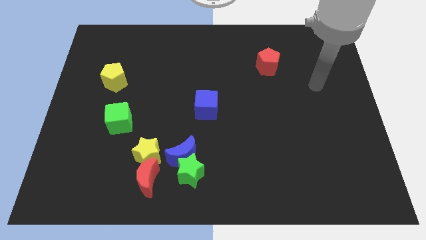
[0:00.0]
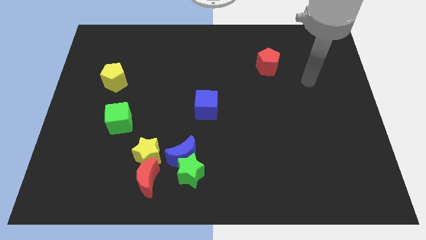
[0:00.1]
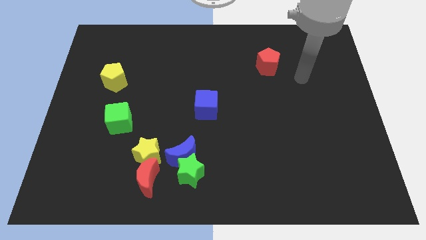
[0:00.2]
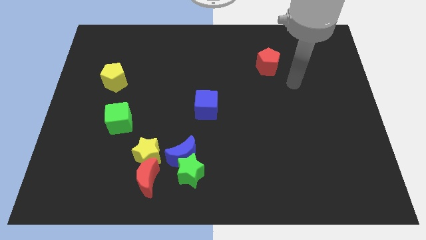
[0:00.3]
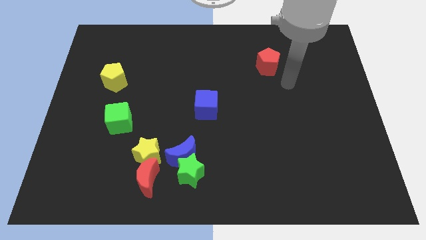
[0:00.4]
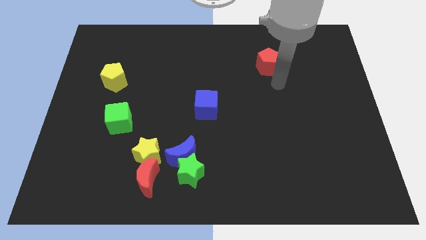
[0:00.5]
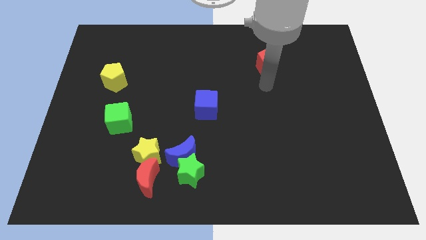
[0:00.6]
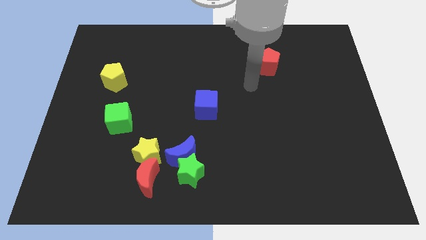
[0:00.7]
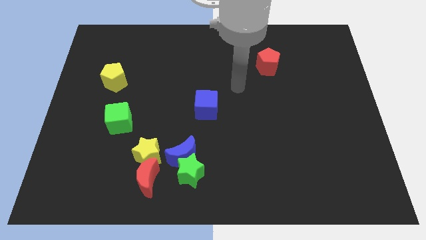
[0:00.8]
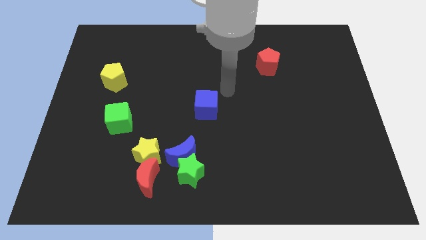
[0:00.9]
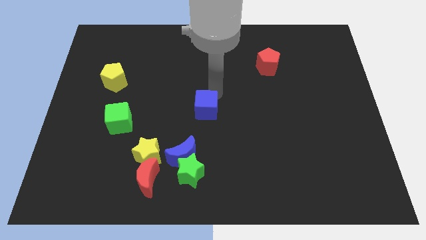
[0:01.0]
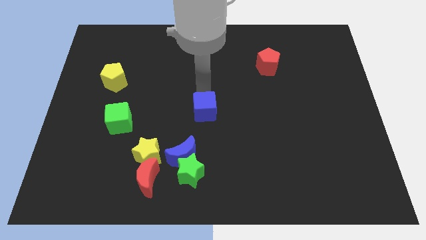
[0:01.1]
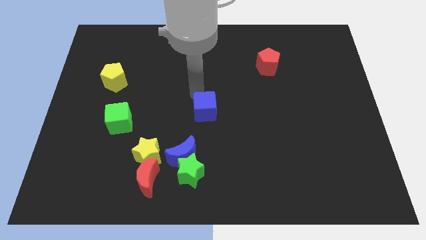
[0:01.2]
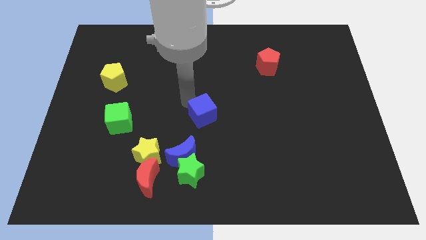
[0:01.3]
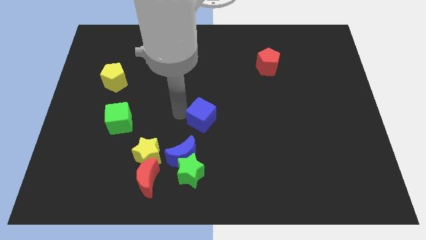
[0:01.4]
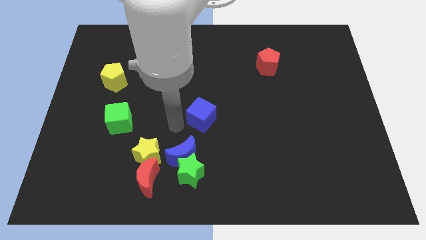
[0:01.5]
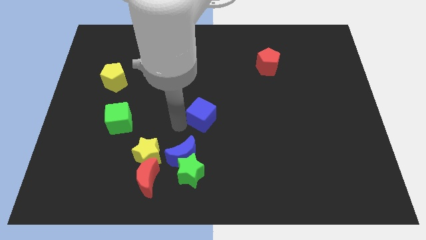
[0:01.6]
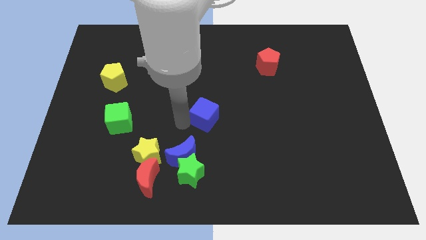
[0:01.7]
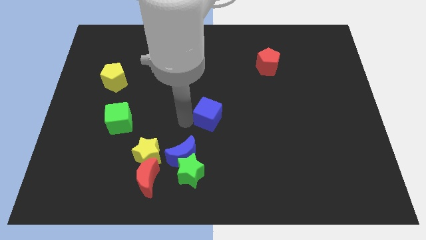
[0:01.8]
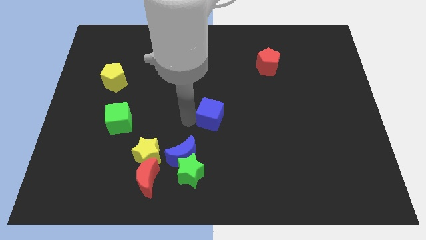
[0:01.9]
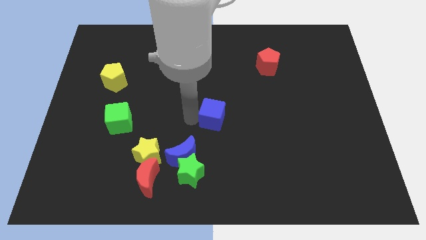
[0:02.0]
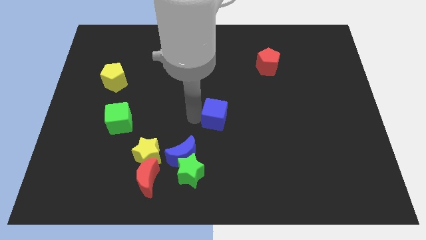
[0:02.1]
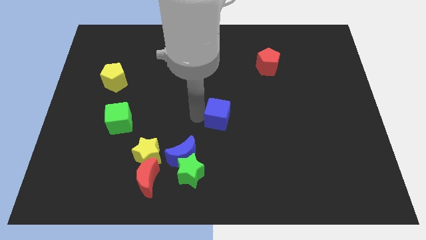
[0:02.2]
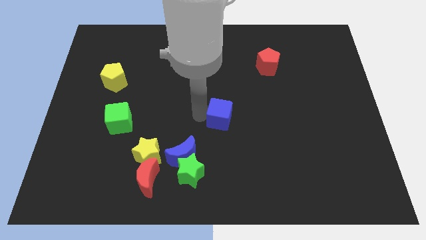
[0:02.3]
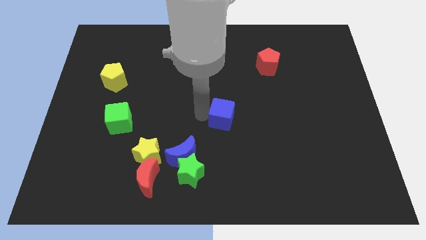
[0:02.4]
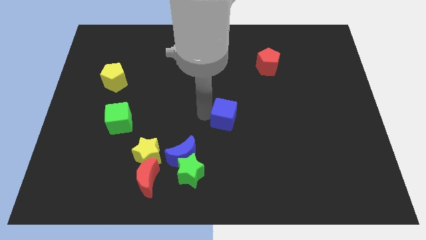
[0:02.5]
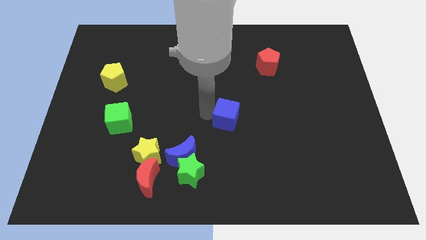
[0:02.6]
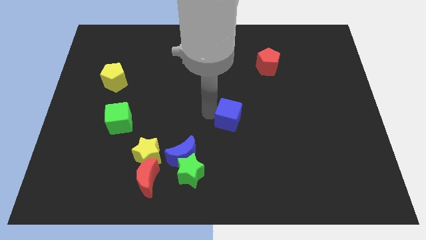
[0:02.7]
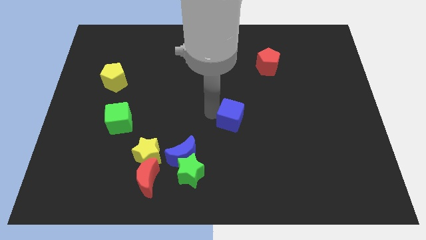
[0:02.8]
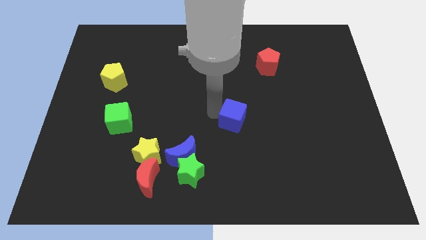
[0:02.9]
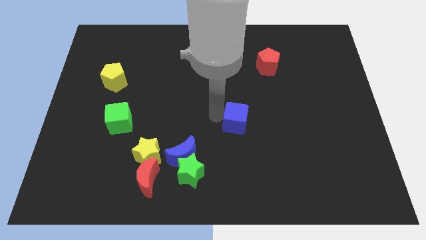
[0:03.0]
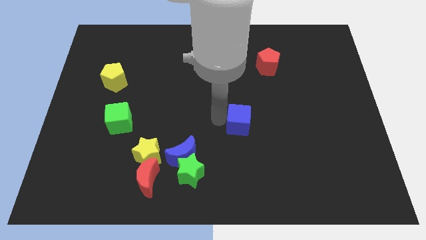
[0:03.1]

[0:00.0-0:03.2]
slide the blue cube a little bit right

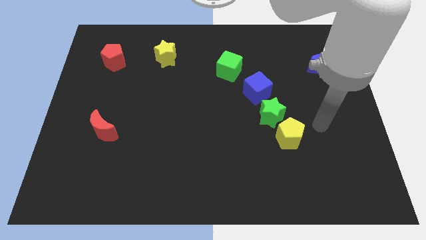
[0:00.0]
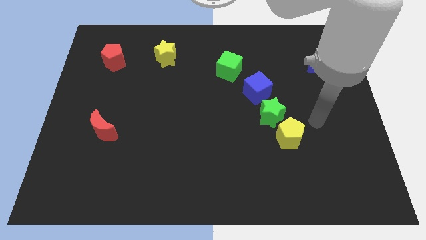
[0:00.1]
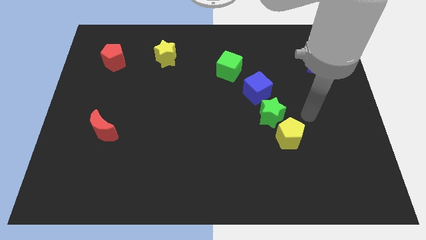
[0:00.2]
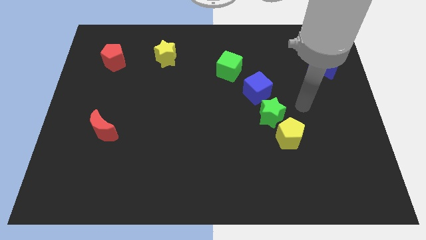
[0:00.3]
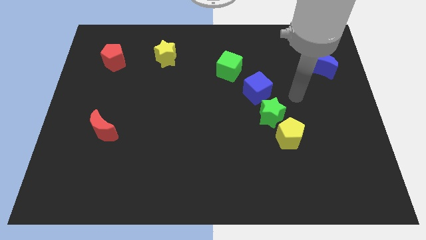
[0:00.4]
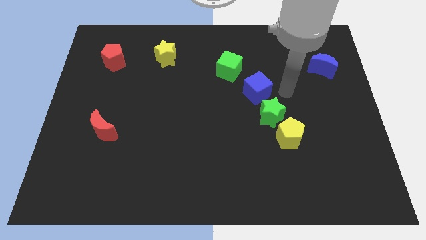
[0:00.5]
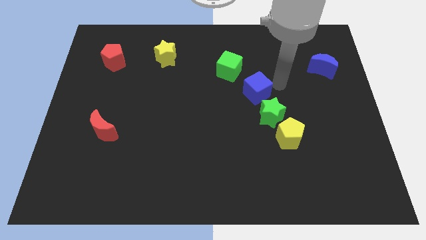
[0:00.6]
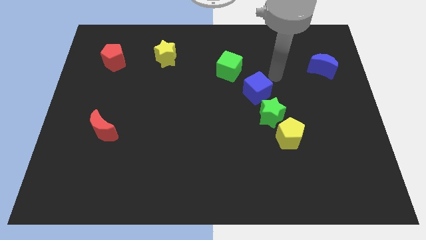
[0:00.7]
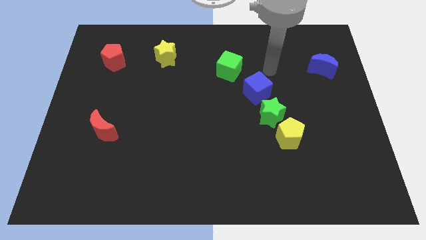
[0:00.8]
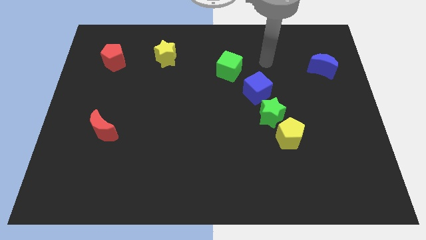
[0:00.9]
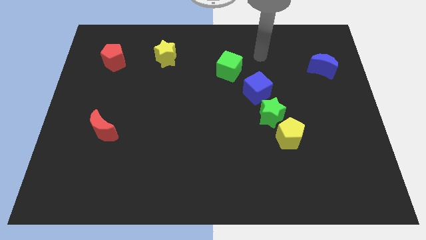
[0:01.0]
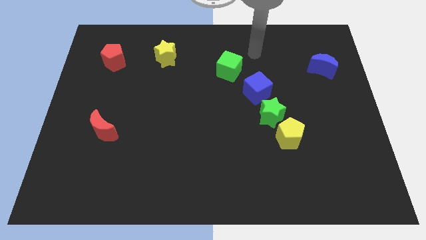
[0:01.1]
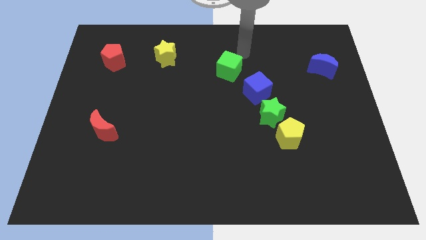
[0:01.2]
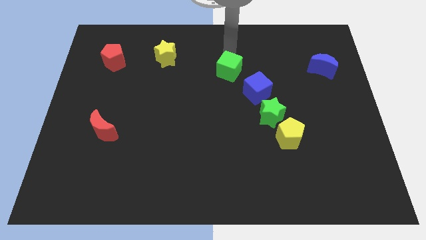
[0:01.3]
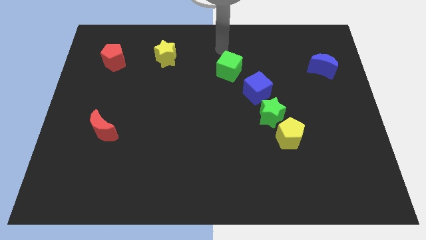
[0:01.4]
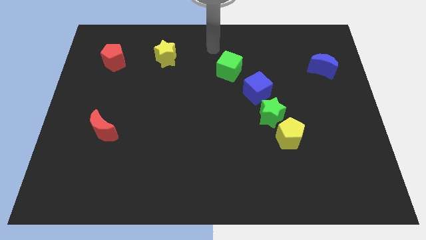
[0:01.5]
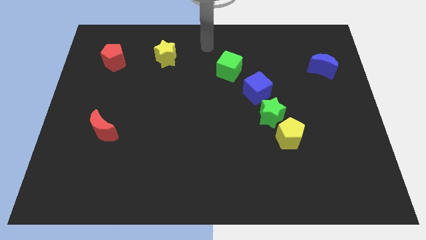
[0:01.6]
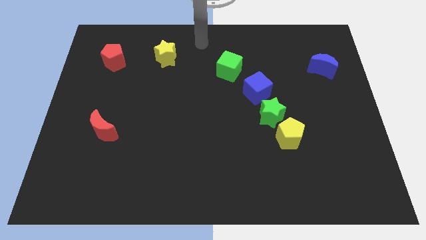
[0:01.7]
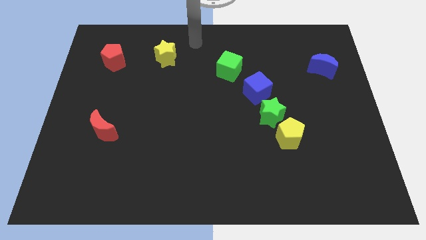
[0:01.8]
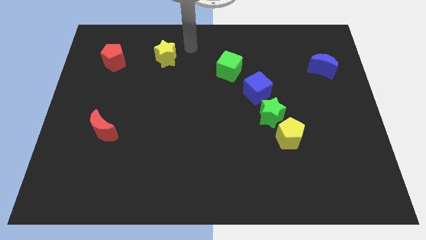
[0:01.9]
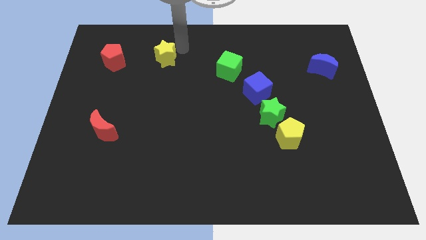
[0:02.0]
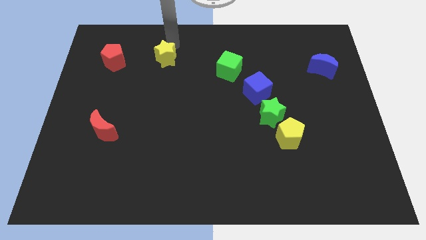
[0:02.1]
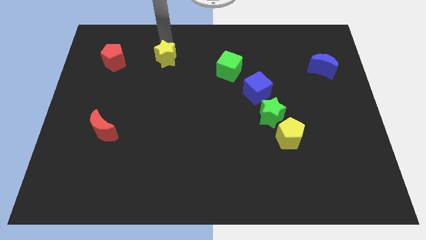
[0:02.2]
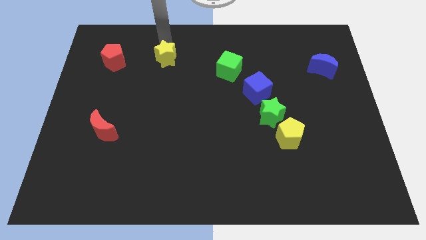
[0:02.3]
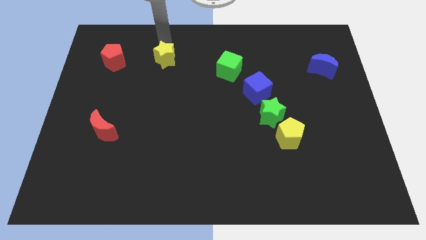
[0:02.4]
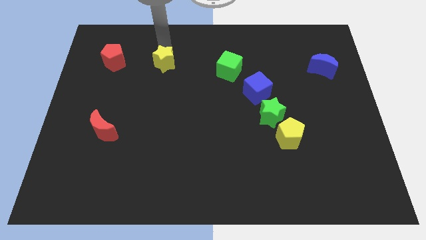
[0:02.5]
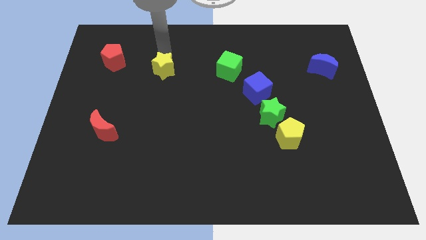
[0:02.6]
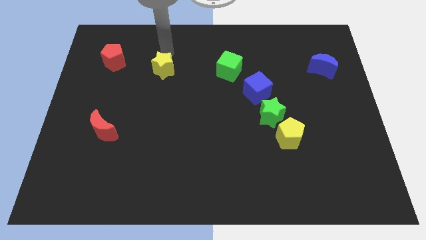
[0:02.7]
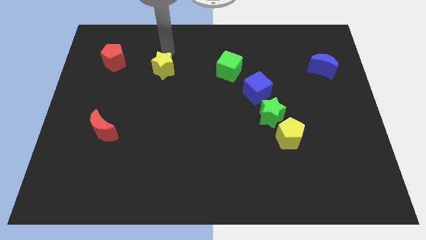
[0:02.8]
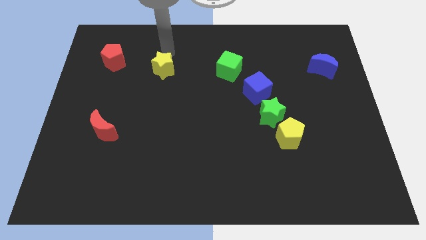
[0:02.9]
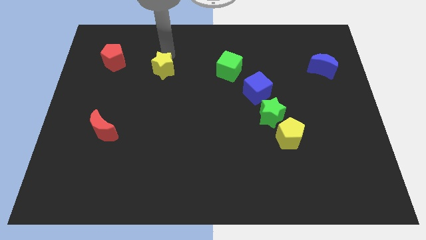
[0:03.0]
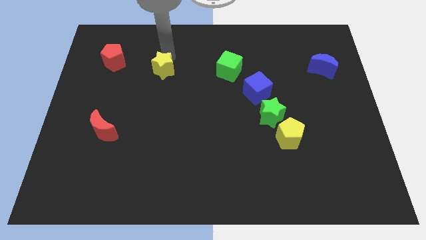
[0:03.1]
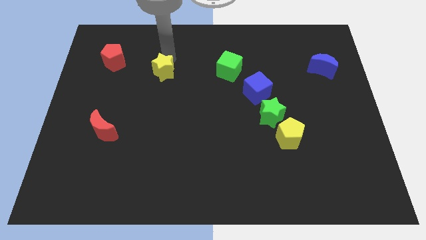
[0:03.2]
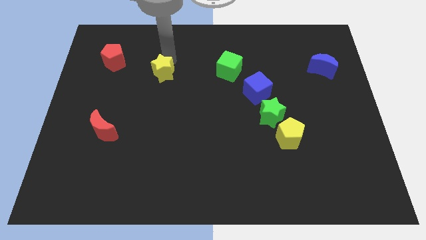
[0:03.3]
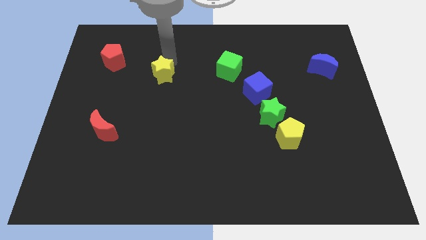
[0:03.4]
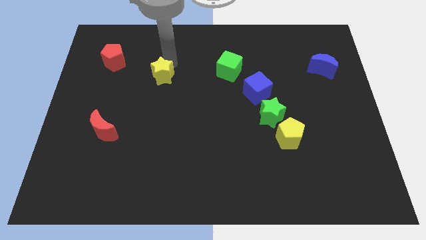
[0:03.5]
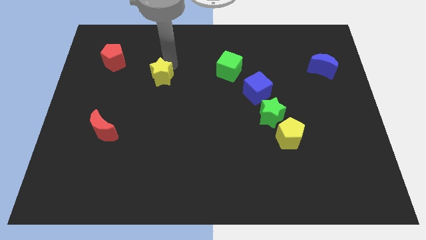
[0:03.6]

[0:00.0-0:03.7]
slightly push the yellow star downwards

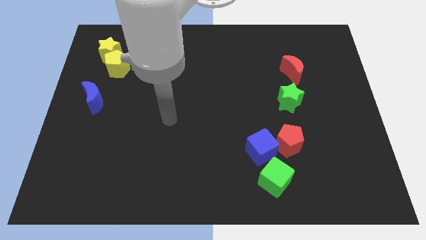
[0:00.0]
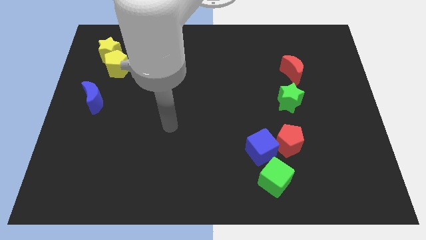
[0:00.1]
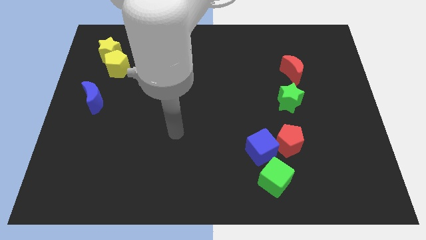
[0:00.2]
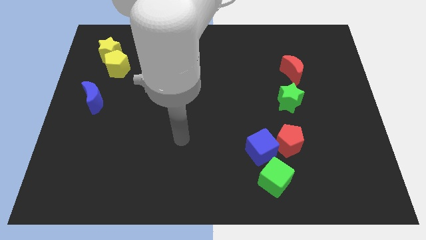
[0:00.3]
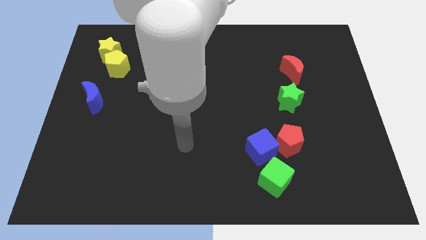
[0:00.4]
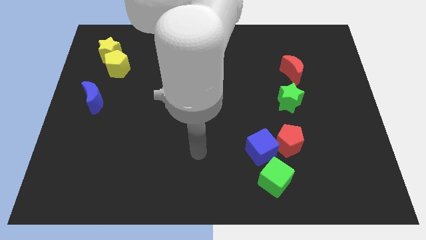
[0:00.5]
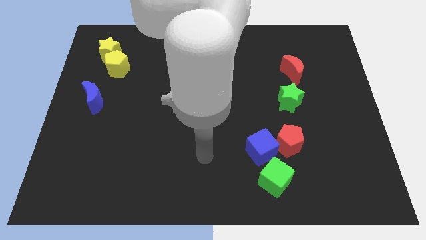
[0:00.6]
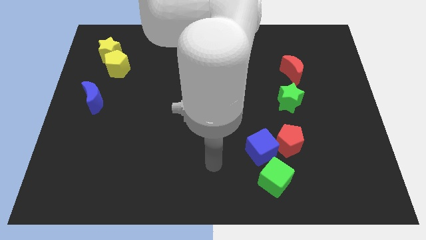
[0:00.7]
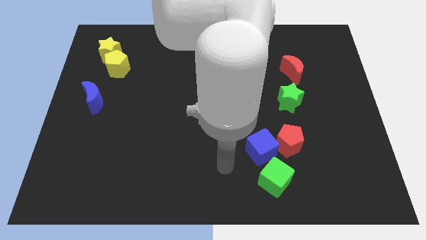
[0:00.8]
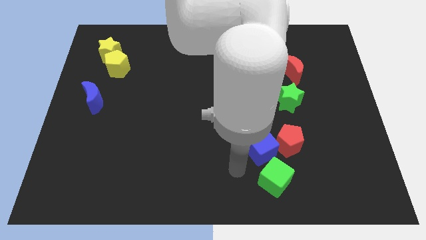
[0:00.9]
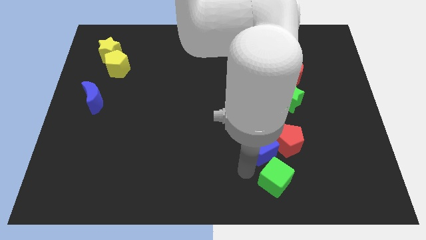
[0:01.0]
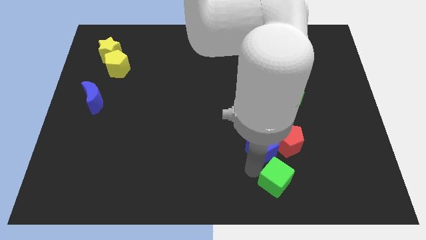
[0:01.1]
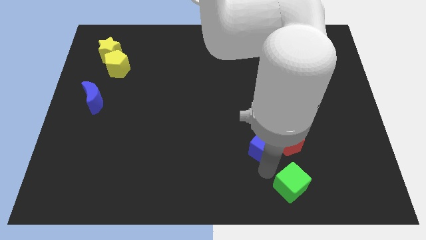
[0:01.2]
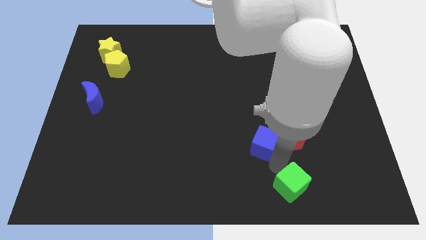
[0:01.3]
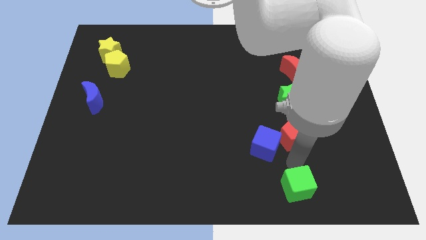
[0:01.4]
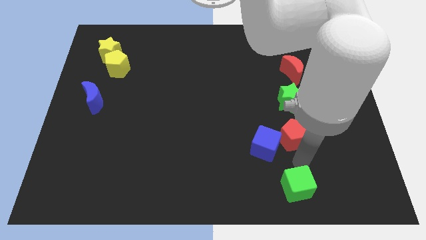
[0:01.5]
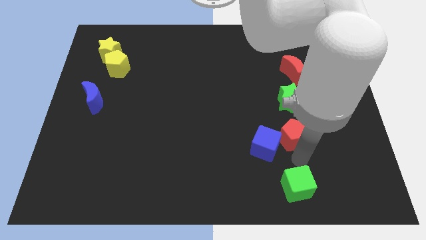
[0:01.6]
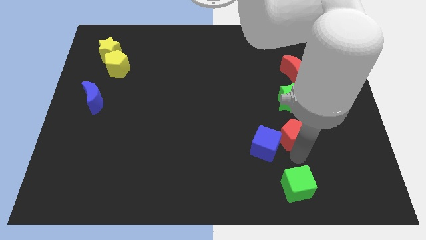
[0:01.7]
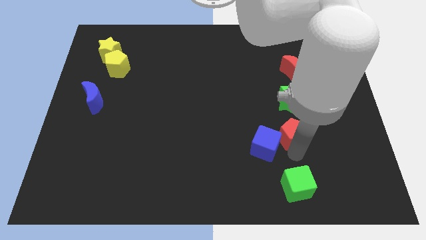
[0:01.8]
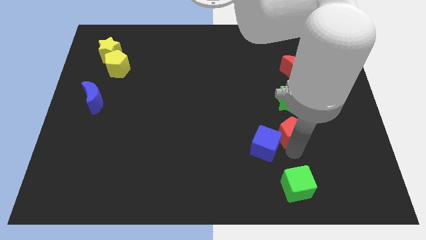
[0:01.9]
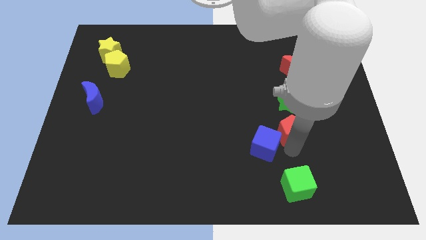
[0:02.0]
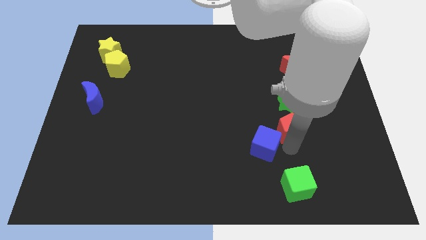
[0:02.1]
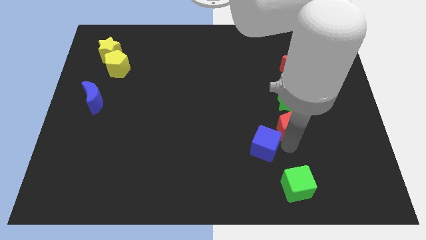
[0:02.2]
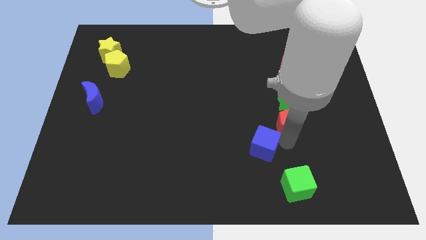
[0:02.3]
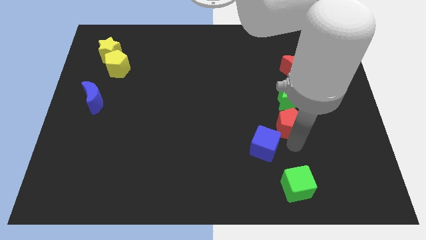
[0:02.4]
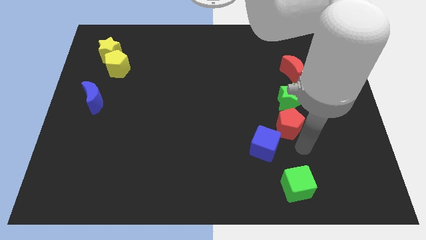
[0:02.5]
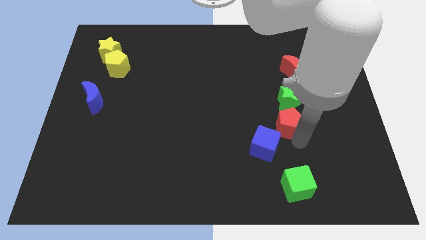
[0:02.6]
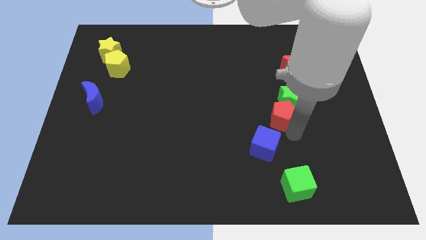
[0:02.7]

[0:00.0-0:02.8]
slide the red pentagon up somewhat
